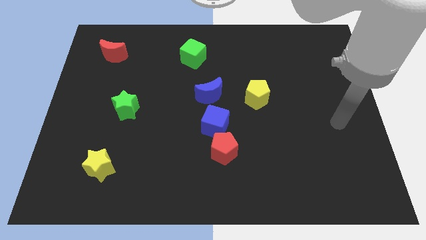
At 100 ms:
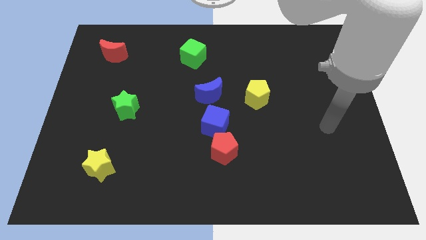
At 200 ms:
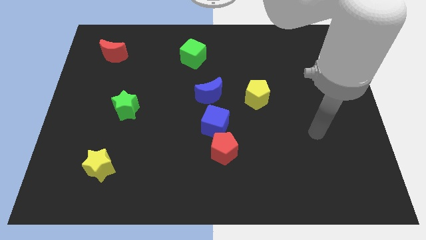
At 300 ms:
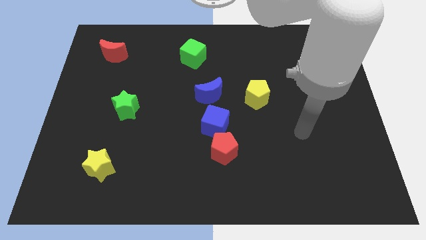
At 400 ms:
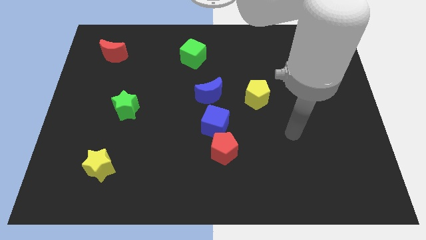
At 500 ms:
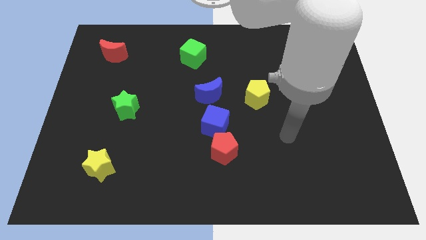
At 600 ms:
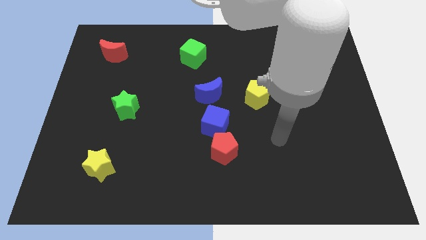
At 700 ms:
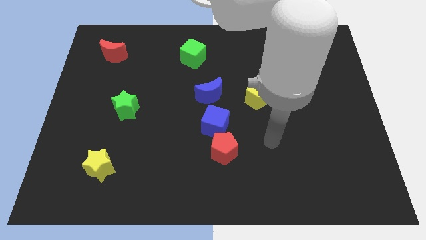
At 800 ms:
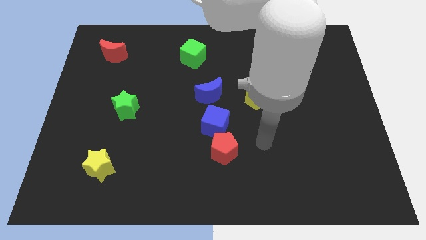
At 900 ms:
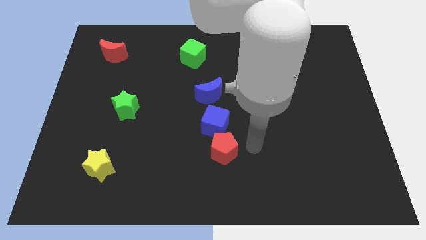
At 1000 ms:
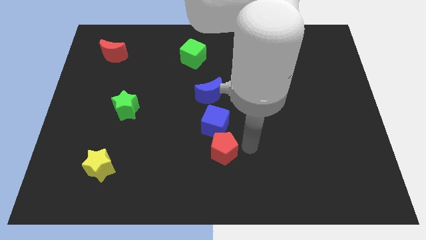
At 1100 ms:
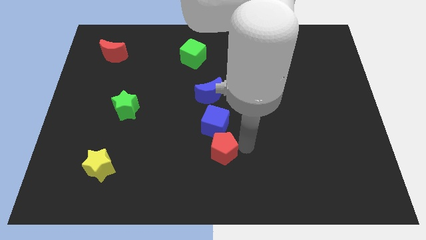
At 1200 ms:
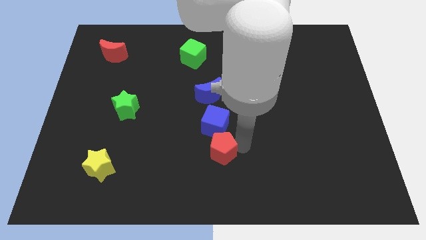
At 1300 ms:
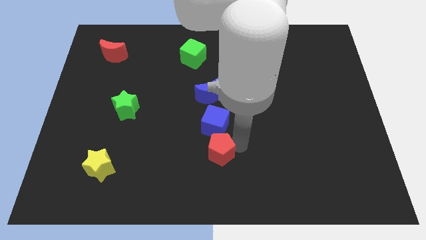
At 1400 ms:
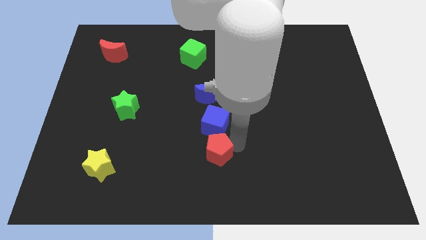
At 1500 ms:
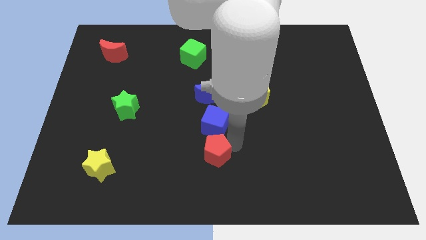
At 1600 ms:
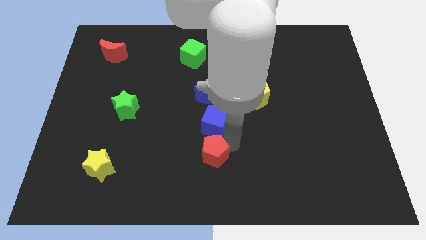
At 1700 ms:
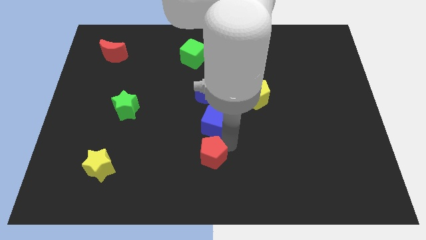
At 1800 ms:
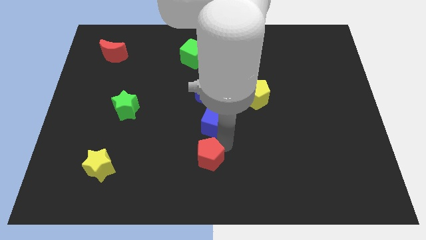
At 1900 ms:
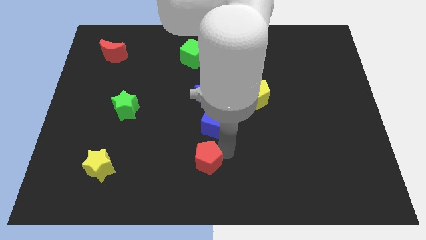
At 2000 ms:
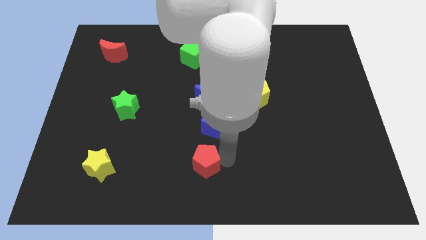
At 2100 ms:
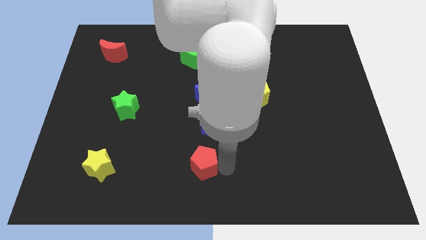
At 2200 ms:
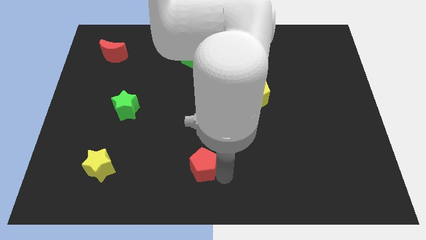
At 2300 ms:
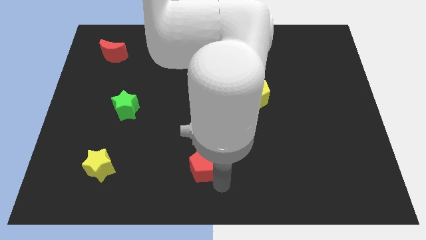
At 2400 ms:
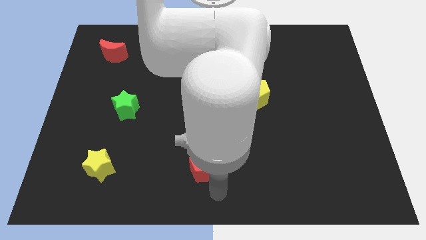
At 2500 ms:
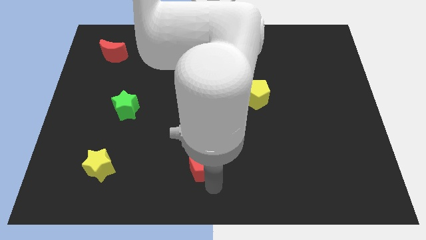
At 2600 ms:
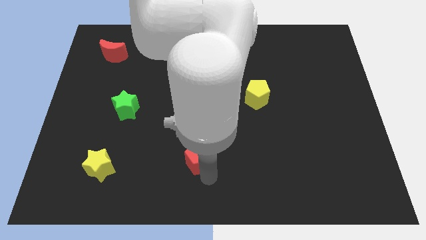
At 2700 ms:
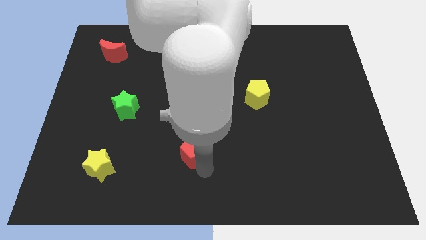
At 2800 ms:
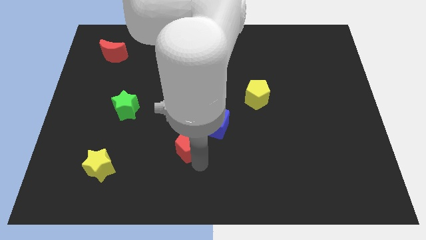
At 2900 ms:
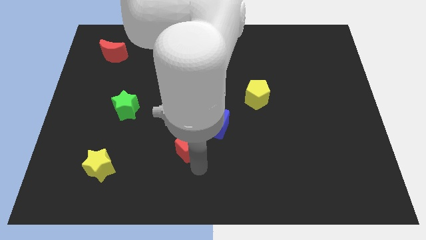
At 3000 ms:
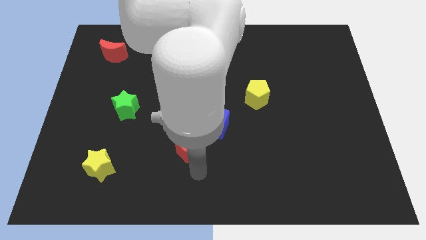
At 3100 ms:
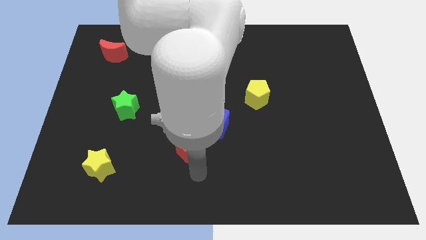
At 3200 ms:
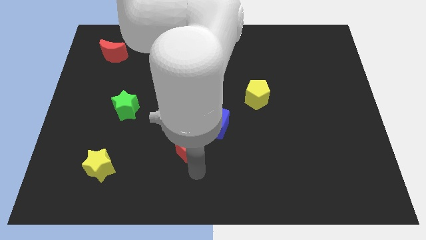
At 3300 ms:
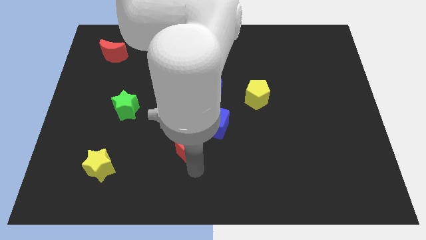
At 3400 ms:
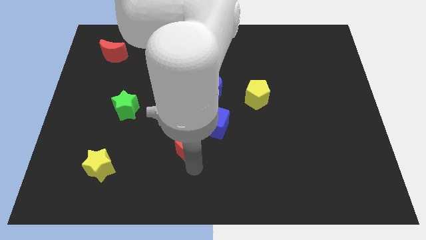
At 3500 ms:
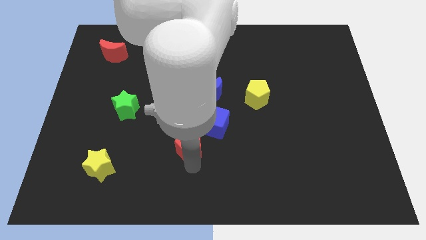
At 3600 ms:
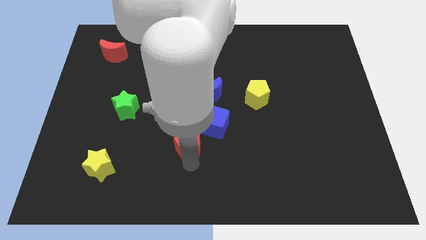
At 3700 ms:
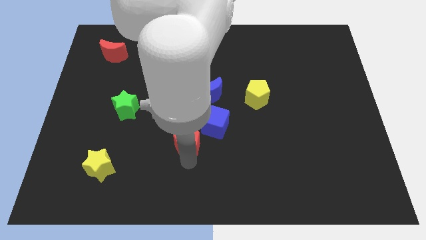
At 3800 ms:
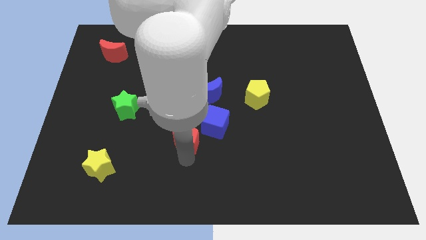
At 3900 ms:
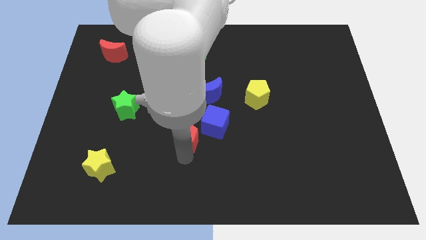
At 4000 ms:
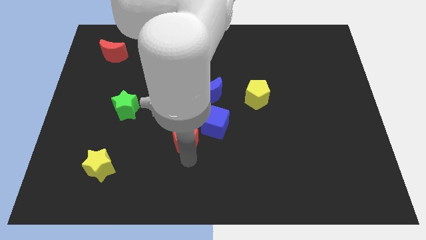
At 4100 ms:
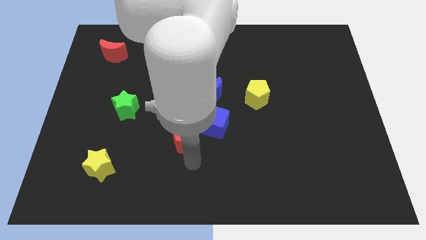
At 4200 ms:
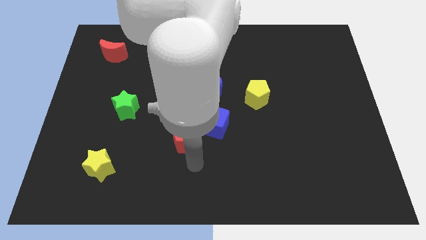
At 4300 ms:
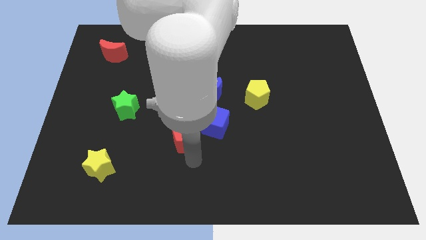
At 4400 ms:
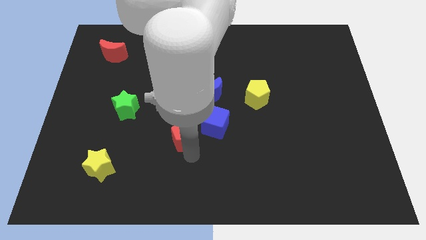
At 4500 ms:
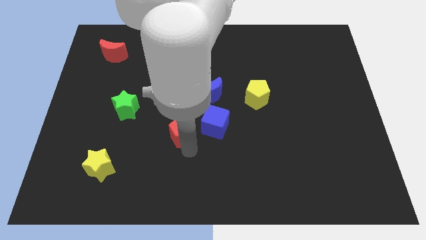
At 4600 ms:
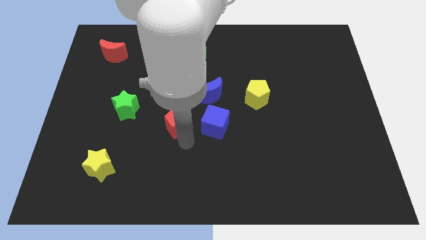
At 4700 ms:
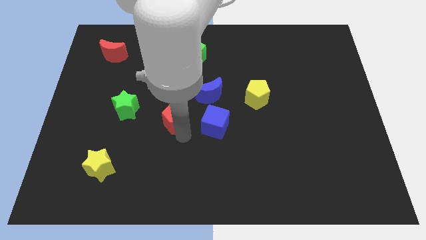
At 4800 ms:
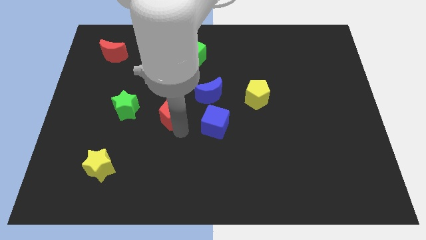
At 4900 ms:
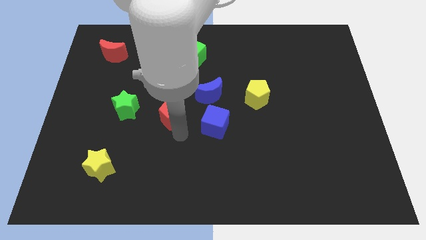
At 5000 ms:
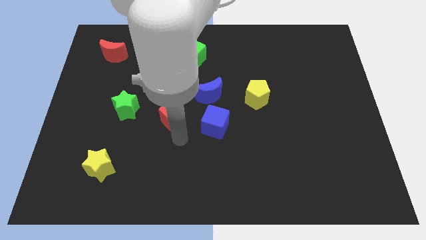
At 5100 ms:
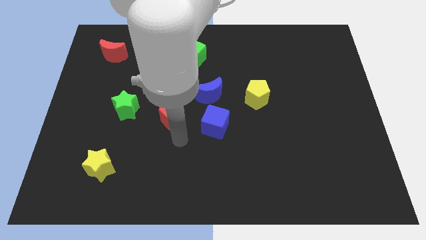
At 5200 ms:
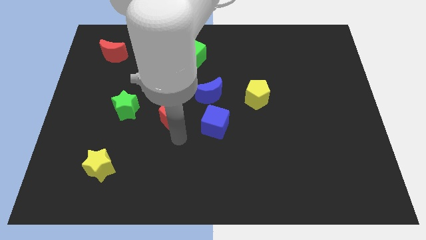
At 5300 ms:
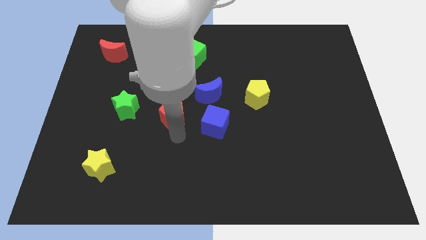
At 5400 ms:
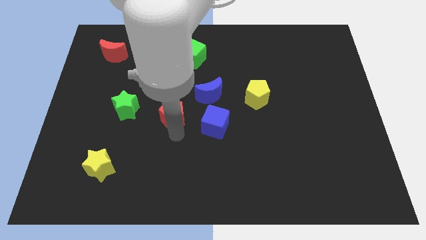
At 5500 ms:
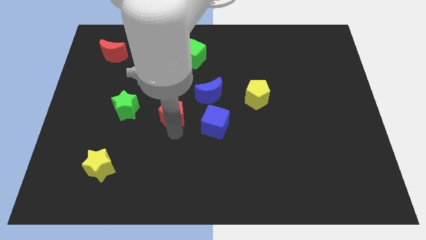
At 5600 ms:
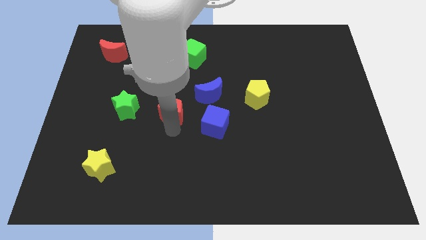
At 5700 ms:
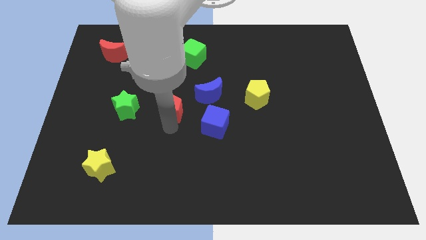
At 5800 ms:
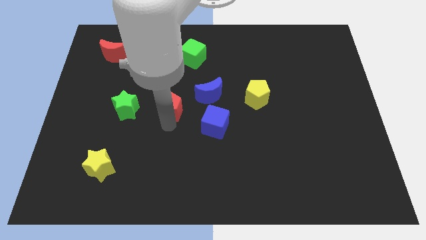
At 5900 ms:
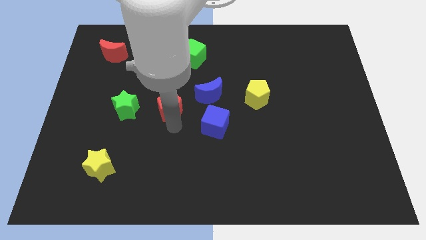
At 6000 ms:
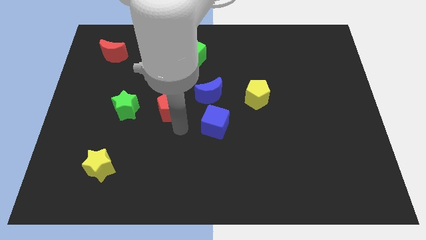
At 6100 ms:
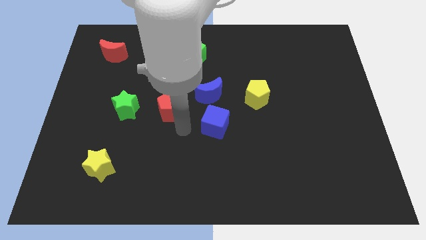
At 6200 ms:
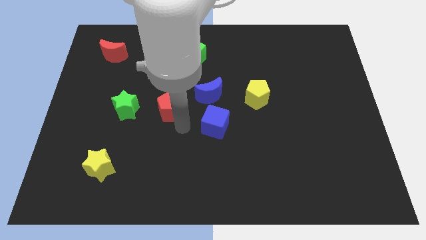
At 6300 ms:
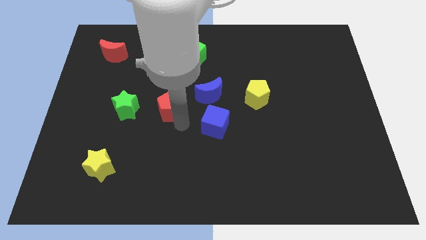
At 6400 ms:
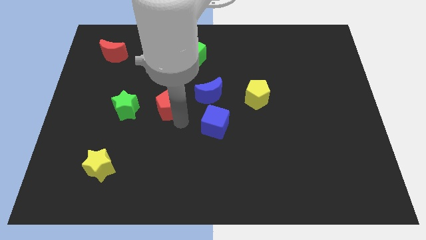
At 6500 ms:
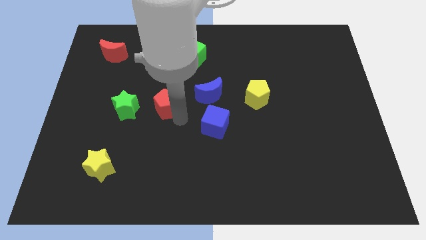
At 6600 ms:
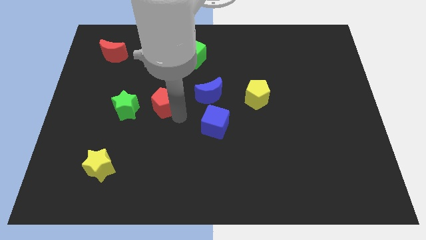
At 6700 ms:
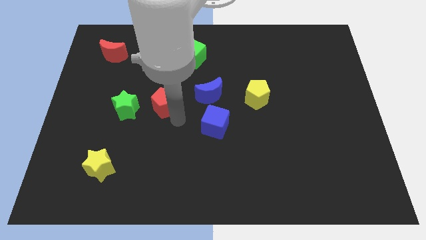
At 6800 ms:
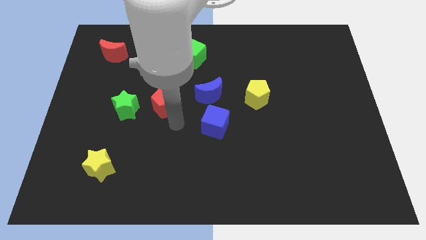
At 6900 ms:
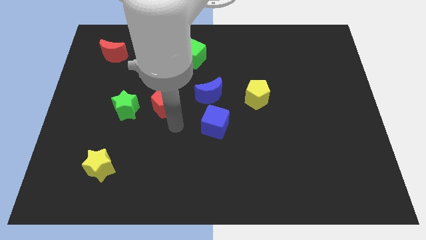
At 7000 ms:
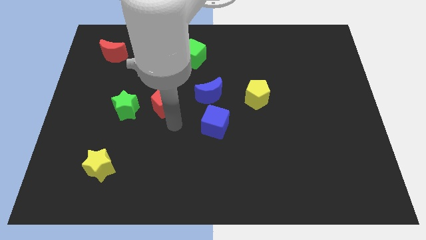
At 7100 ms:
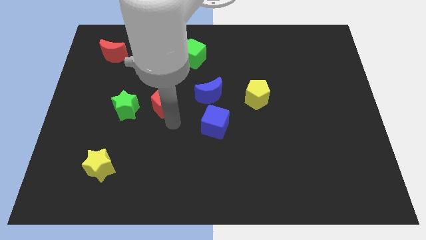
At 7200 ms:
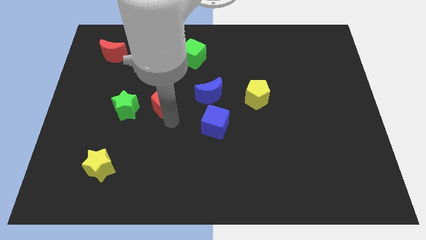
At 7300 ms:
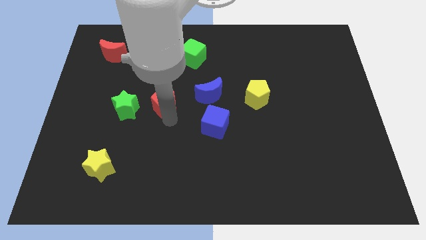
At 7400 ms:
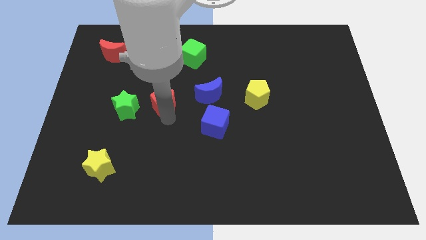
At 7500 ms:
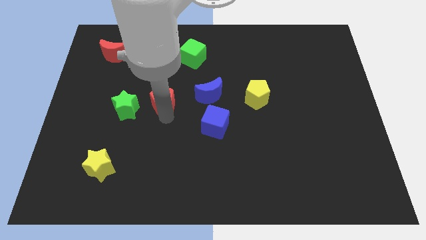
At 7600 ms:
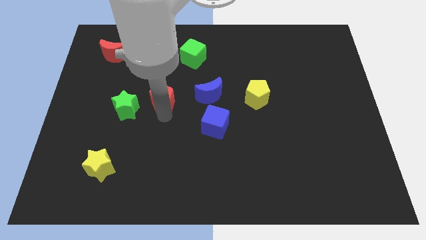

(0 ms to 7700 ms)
push the red pentagon up and then to the left

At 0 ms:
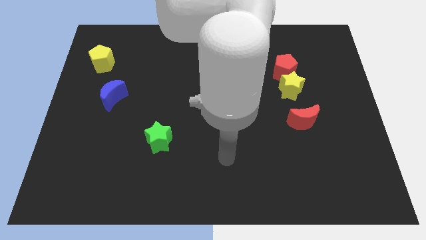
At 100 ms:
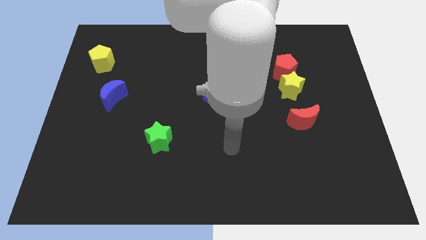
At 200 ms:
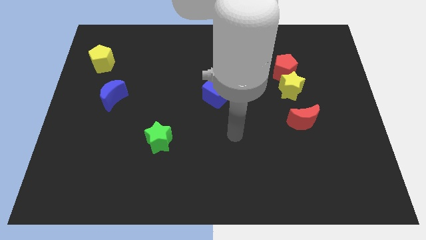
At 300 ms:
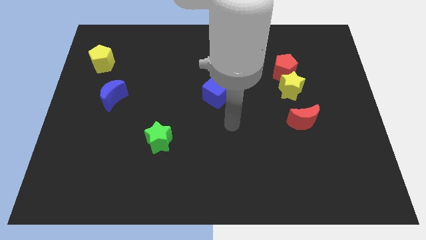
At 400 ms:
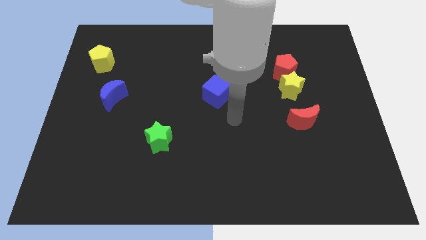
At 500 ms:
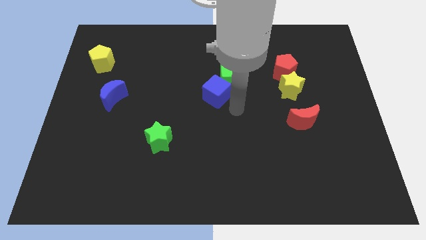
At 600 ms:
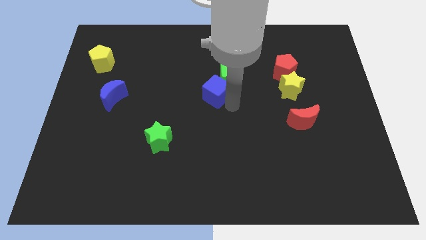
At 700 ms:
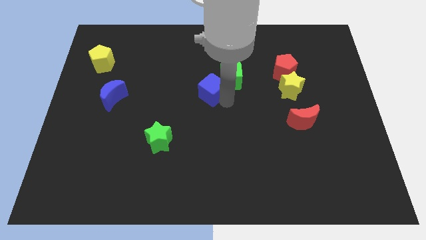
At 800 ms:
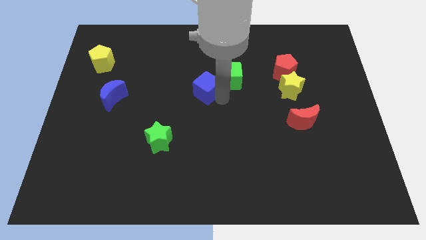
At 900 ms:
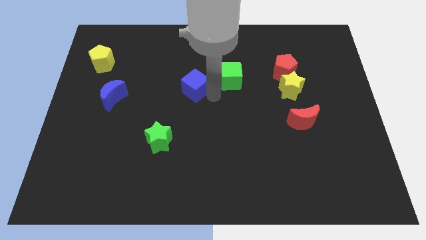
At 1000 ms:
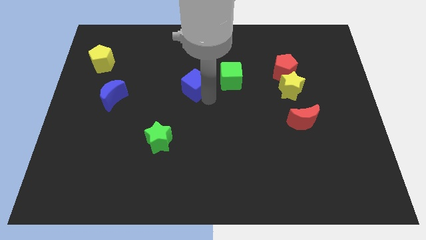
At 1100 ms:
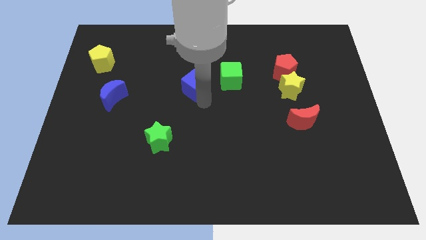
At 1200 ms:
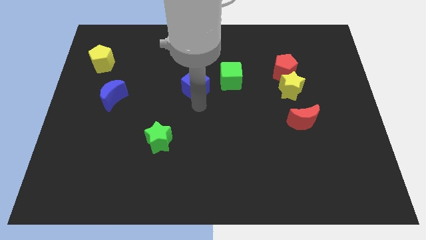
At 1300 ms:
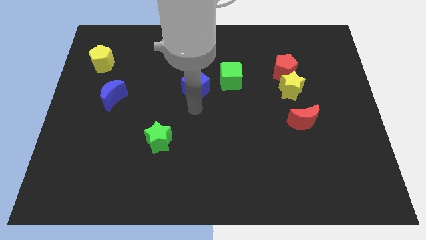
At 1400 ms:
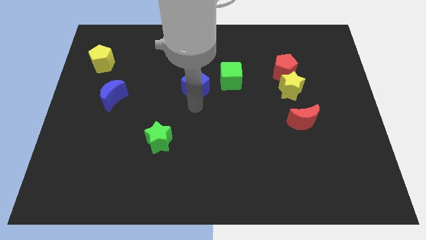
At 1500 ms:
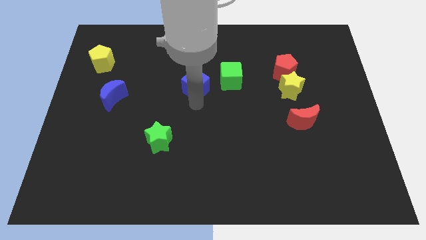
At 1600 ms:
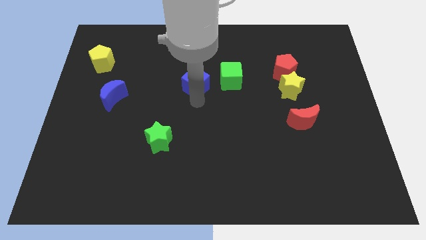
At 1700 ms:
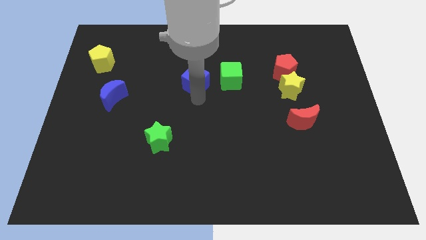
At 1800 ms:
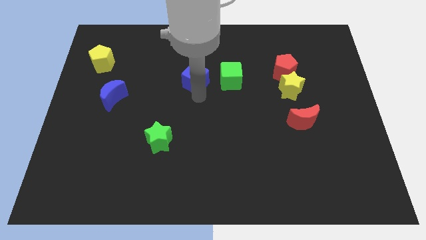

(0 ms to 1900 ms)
slide the blue cube up and left diagonally a bit
